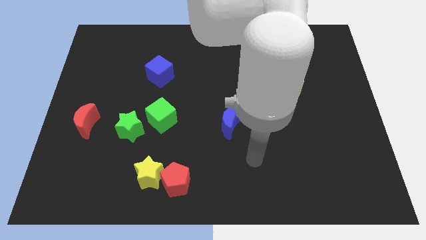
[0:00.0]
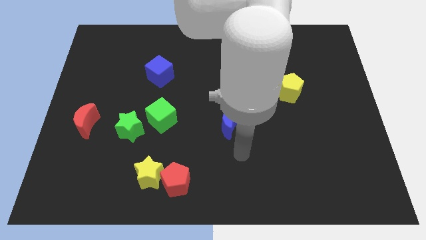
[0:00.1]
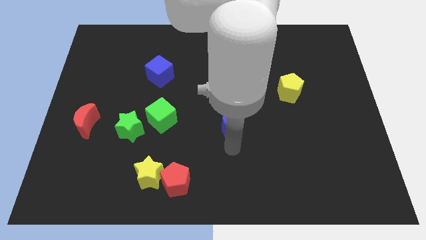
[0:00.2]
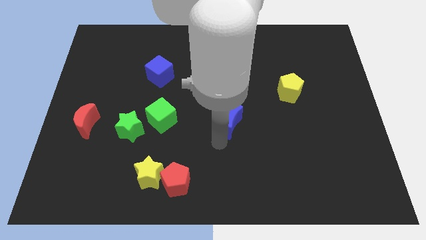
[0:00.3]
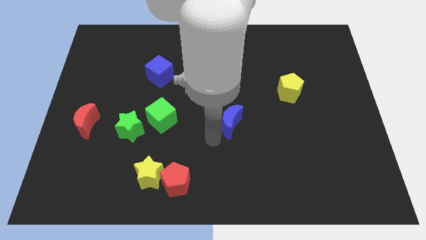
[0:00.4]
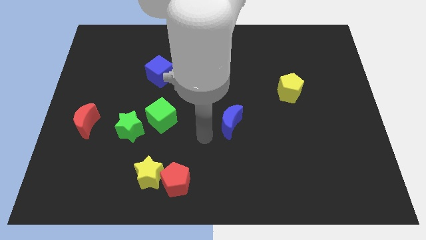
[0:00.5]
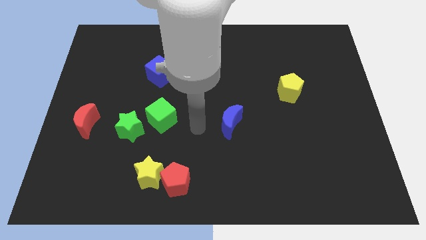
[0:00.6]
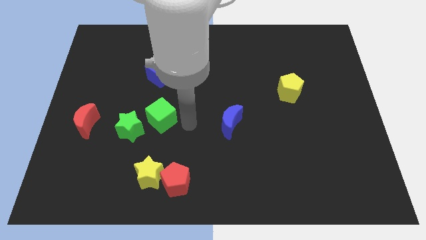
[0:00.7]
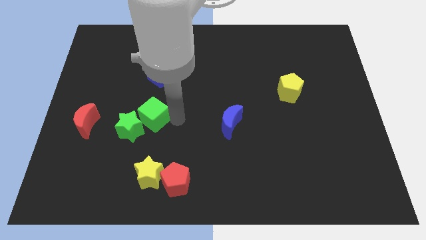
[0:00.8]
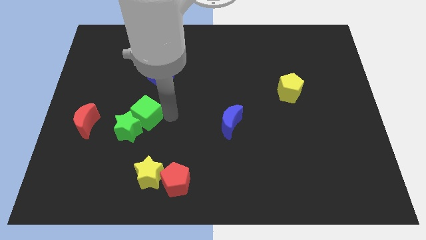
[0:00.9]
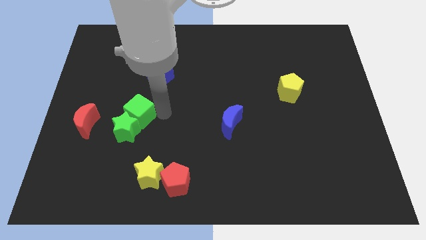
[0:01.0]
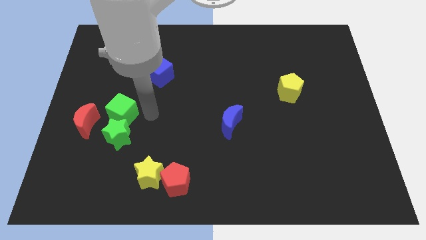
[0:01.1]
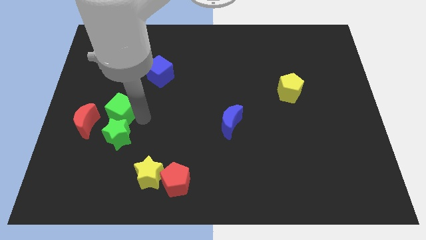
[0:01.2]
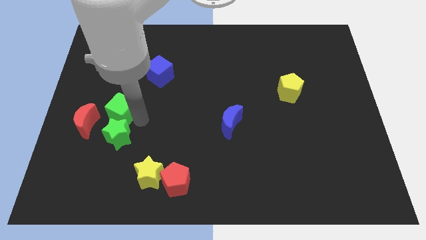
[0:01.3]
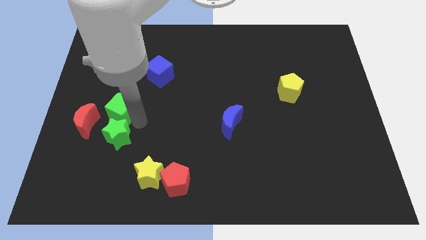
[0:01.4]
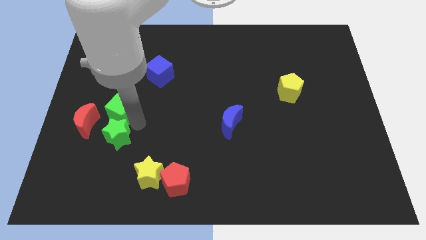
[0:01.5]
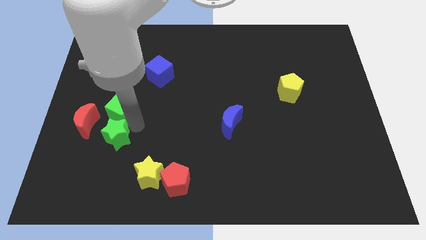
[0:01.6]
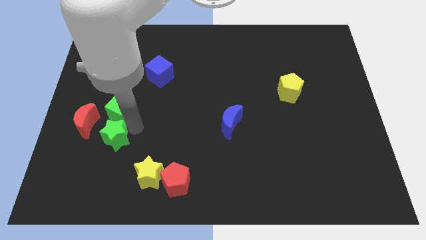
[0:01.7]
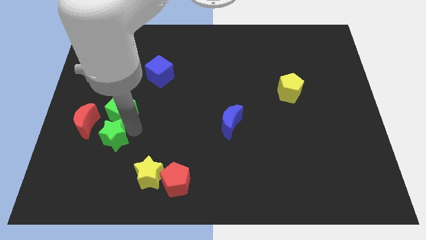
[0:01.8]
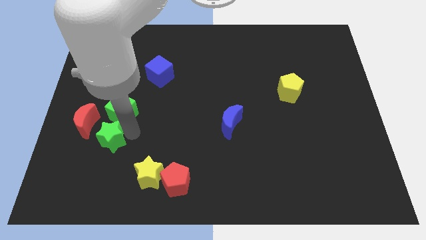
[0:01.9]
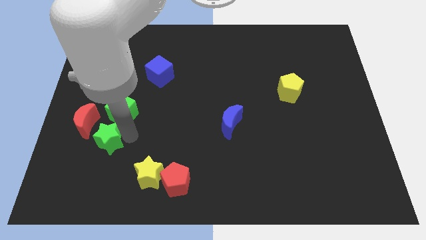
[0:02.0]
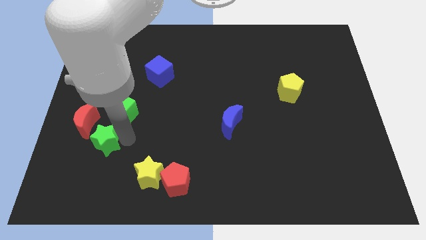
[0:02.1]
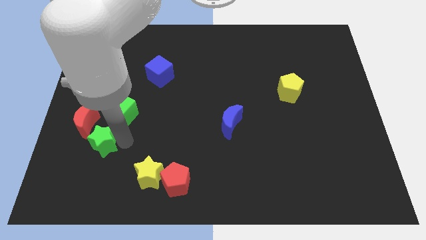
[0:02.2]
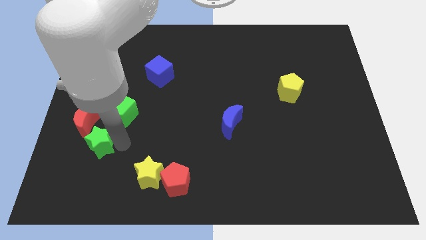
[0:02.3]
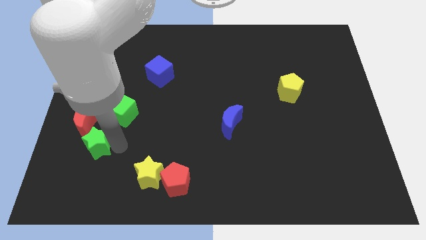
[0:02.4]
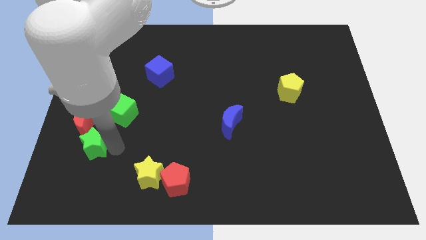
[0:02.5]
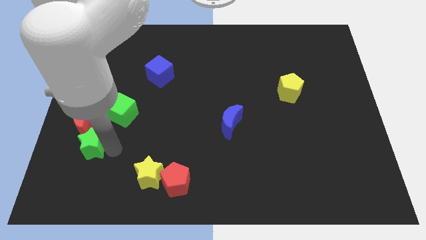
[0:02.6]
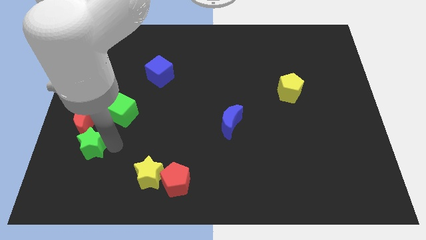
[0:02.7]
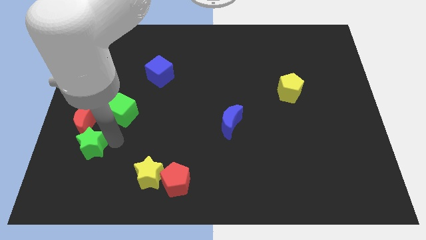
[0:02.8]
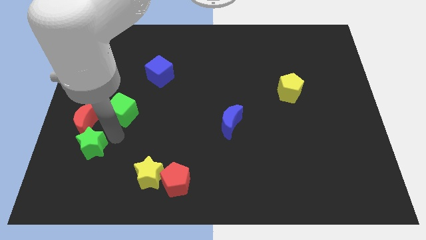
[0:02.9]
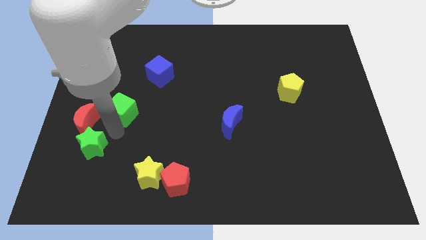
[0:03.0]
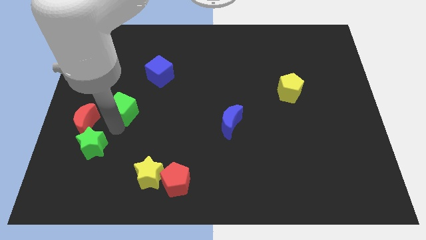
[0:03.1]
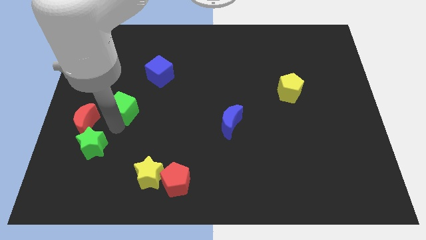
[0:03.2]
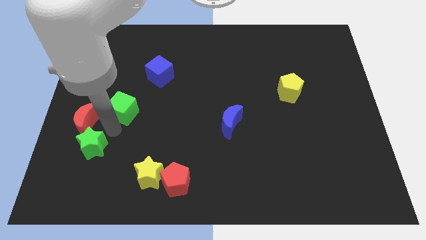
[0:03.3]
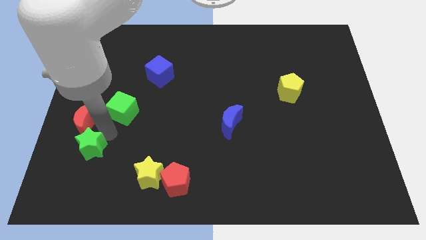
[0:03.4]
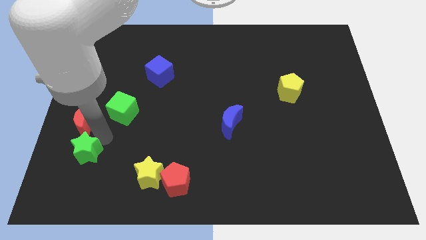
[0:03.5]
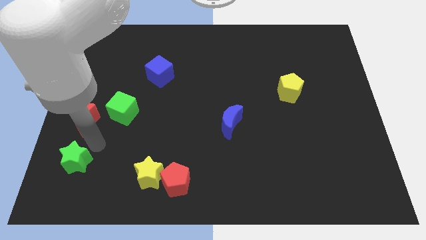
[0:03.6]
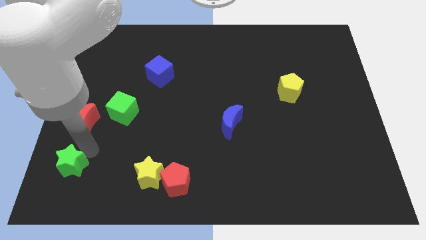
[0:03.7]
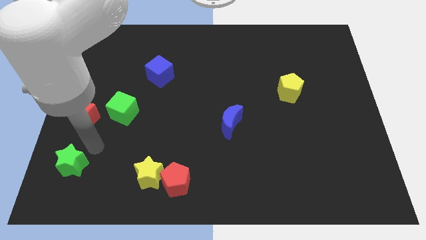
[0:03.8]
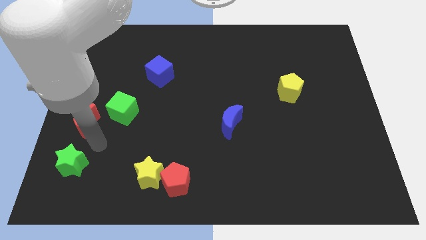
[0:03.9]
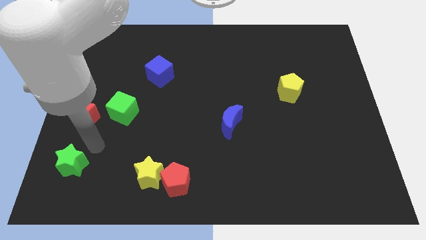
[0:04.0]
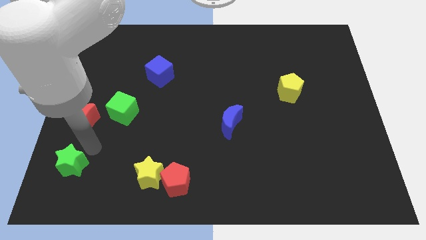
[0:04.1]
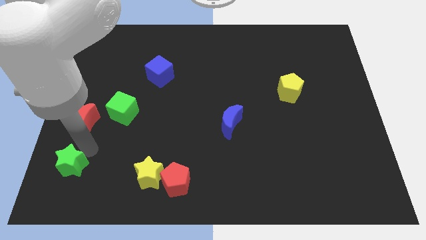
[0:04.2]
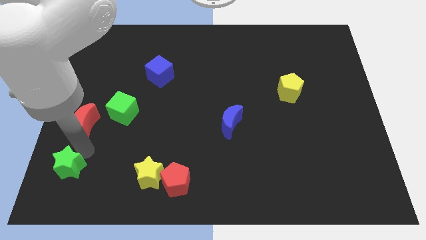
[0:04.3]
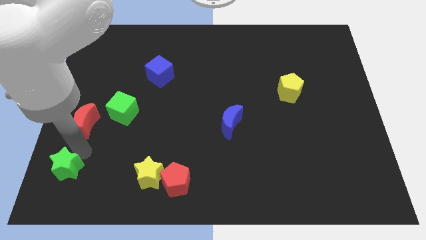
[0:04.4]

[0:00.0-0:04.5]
move the green star to the bottom left of the board

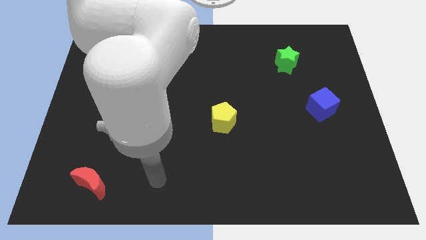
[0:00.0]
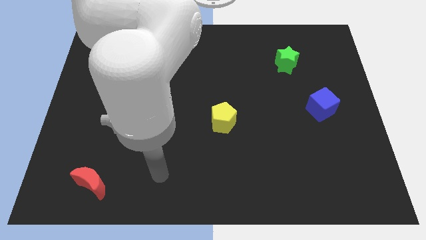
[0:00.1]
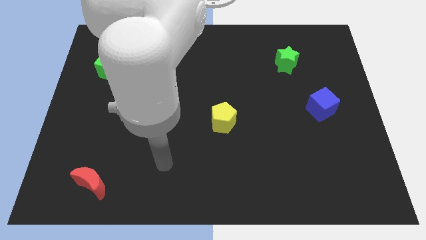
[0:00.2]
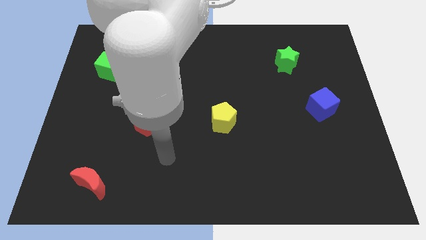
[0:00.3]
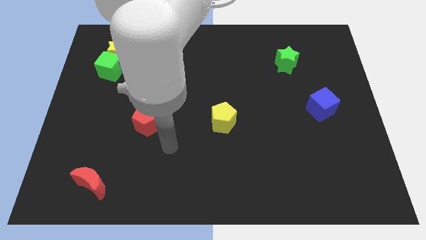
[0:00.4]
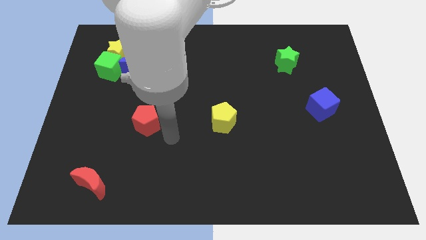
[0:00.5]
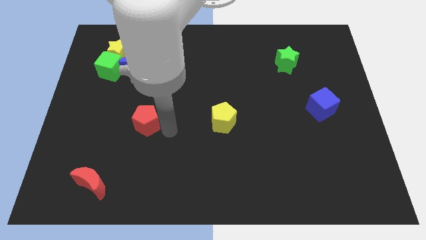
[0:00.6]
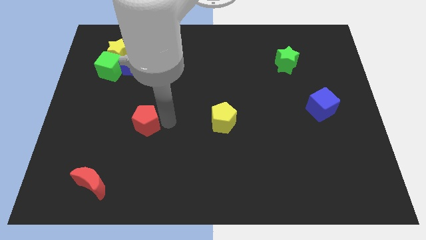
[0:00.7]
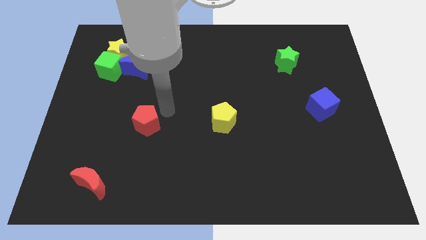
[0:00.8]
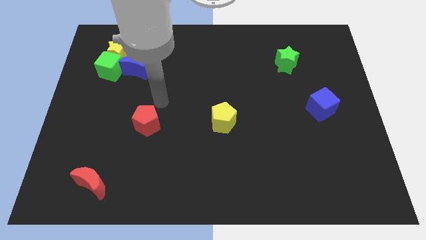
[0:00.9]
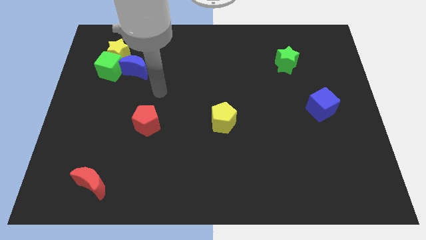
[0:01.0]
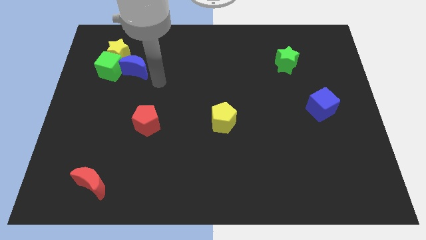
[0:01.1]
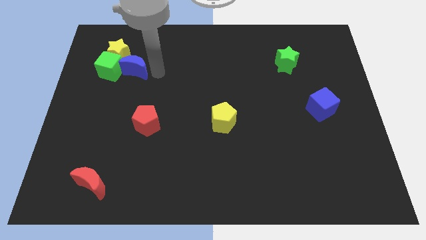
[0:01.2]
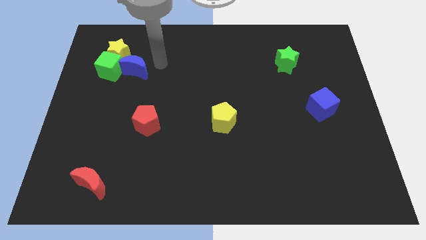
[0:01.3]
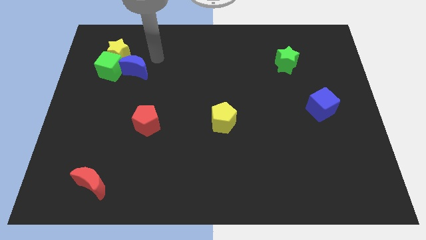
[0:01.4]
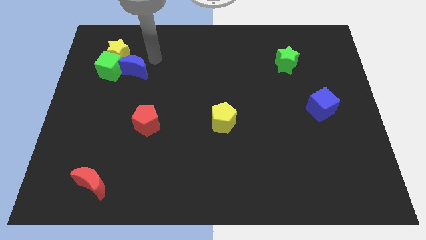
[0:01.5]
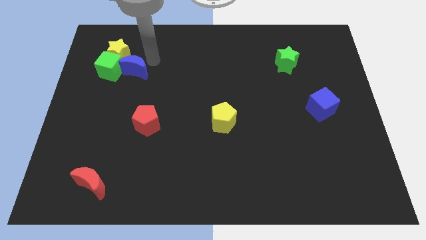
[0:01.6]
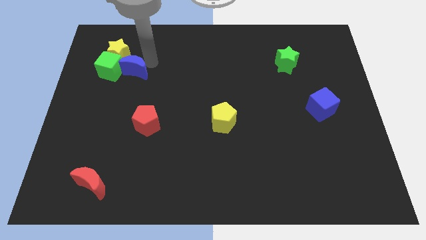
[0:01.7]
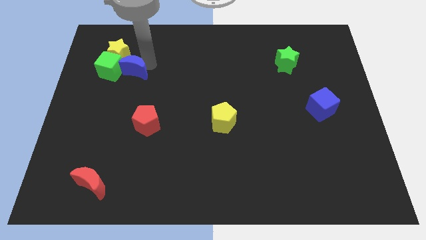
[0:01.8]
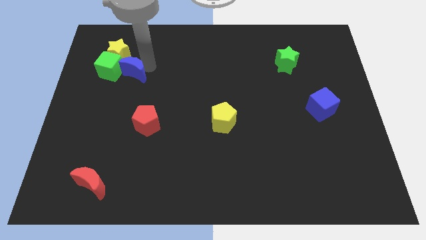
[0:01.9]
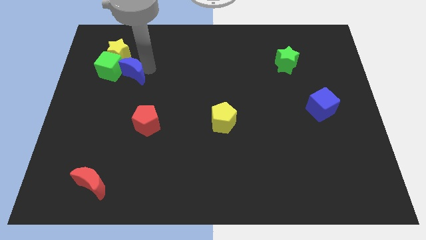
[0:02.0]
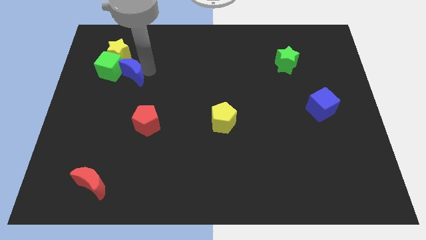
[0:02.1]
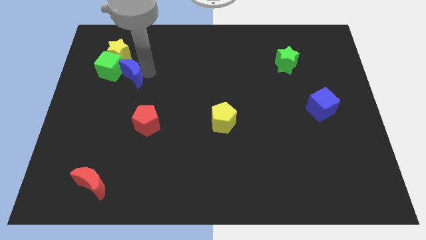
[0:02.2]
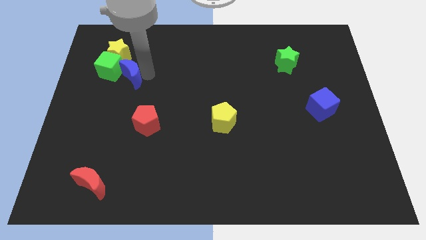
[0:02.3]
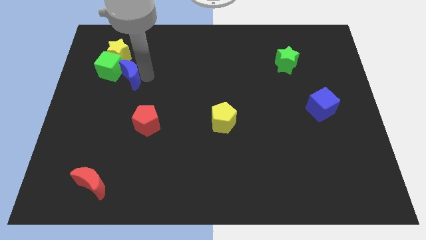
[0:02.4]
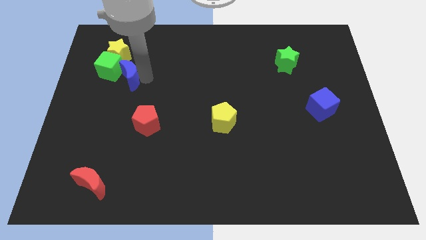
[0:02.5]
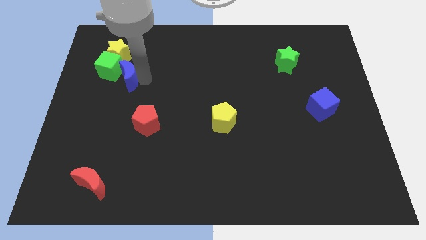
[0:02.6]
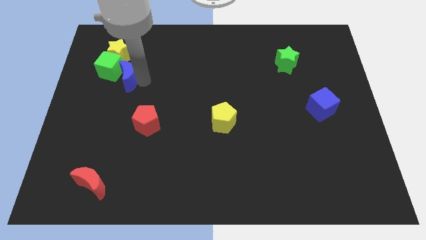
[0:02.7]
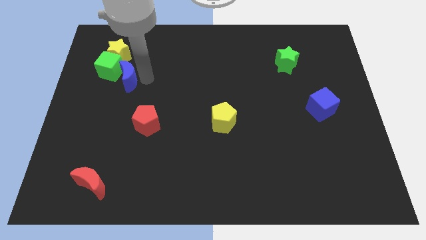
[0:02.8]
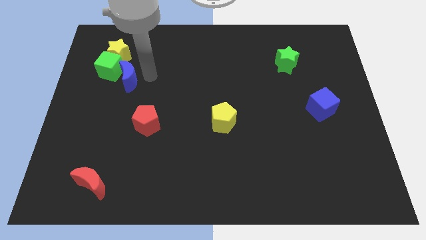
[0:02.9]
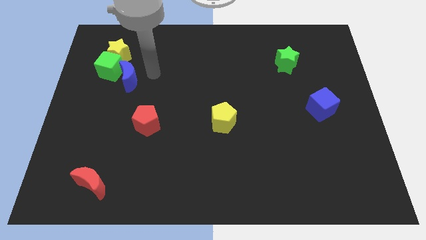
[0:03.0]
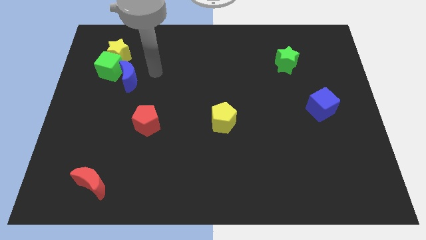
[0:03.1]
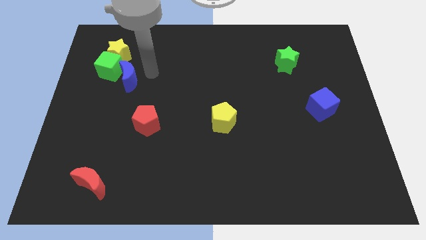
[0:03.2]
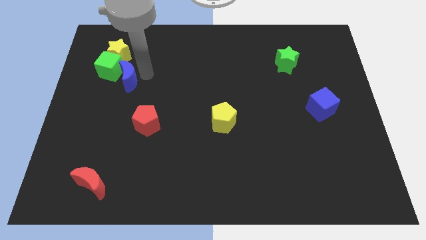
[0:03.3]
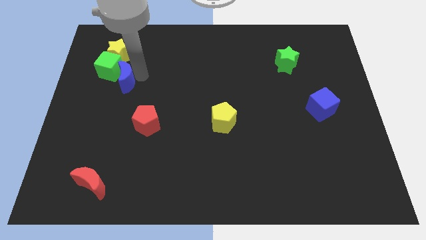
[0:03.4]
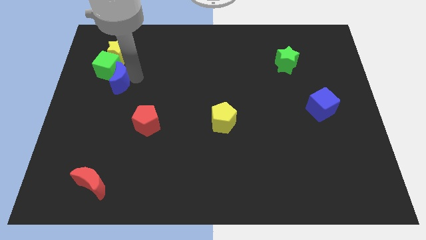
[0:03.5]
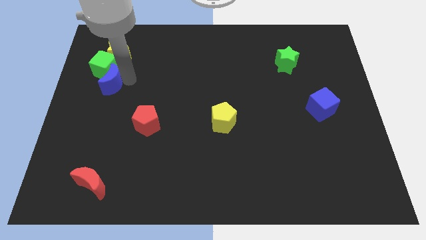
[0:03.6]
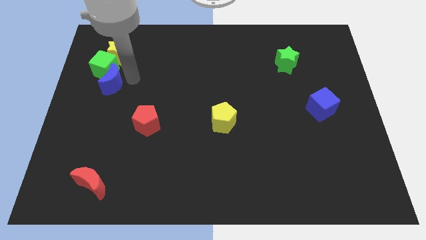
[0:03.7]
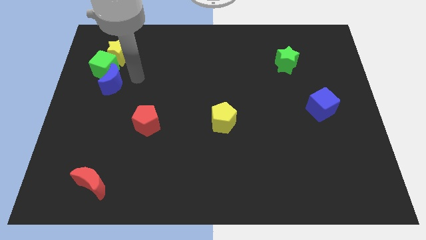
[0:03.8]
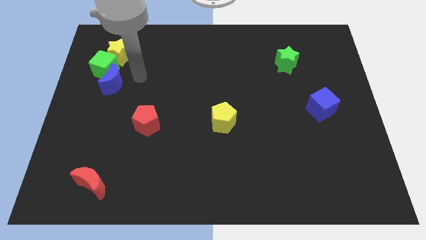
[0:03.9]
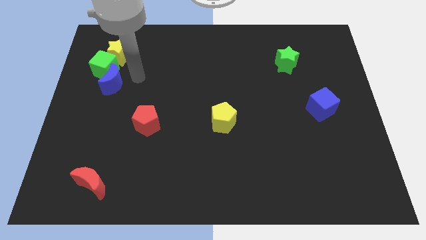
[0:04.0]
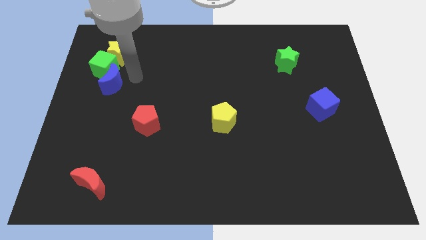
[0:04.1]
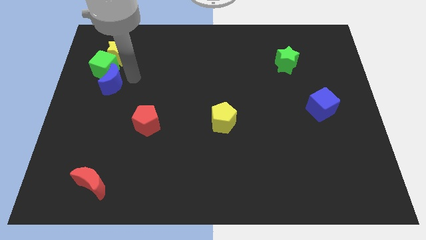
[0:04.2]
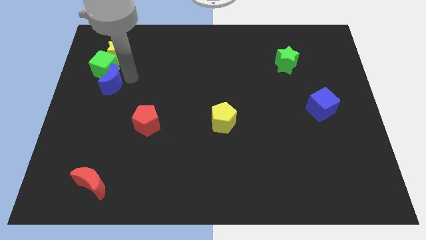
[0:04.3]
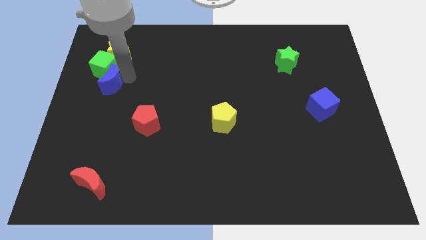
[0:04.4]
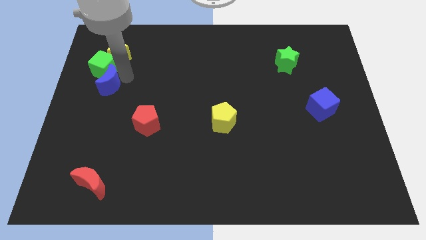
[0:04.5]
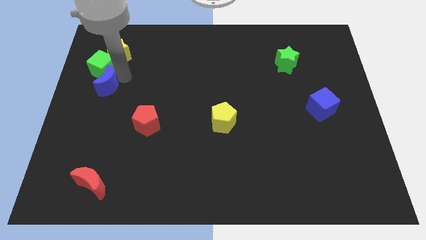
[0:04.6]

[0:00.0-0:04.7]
move the blue moon to the left side of the board
